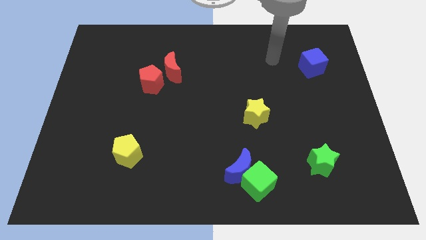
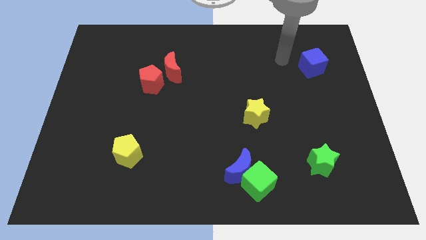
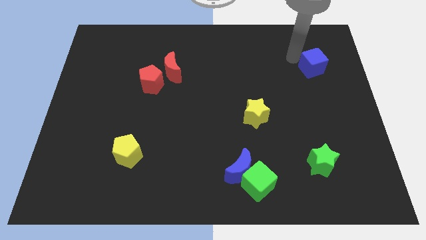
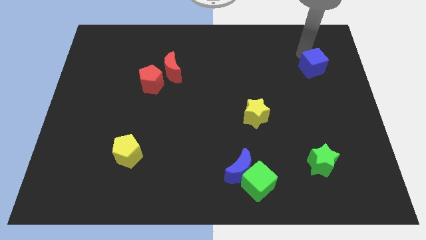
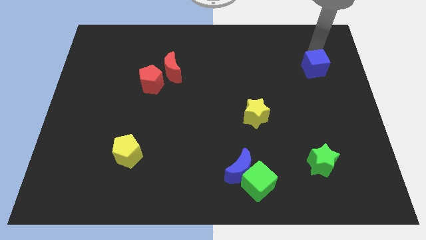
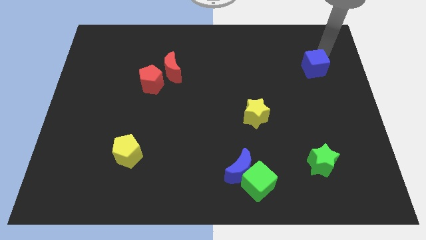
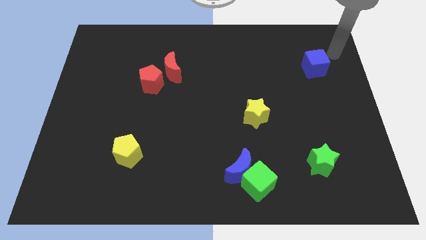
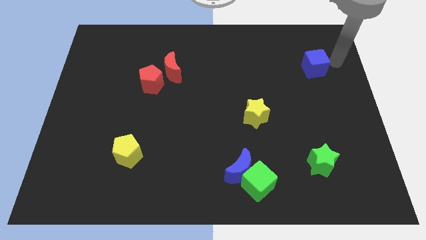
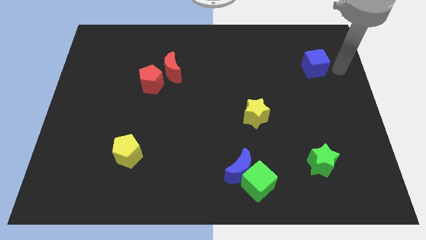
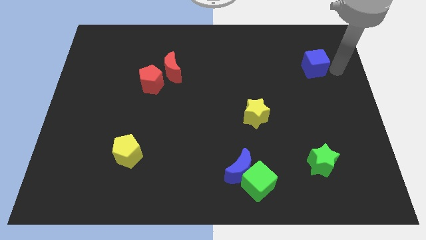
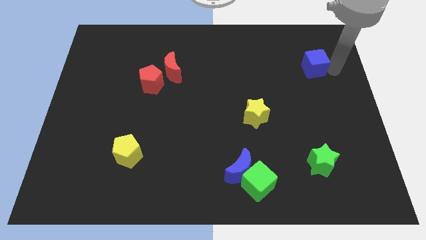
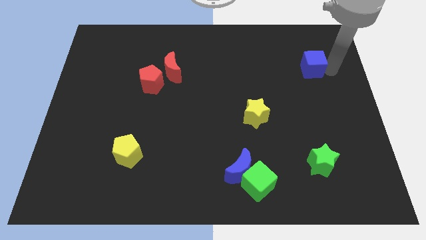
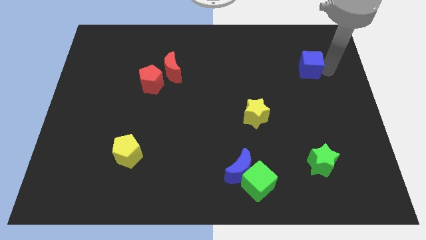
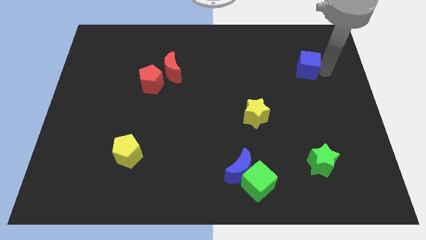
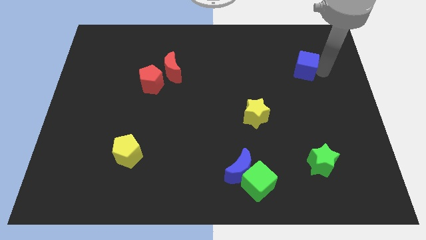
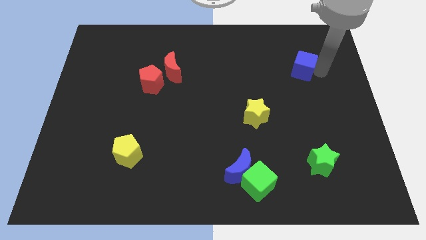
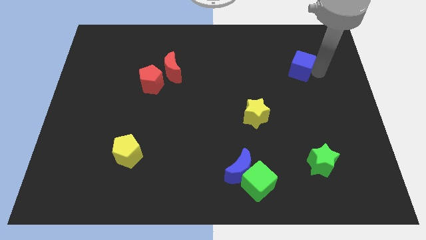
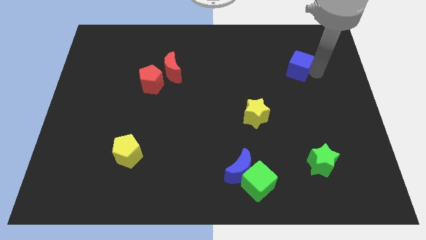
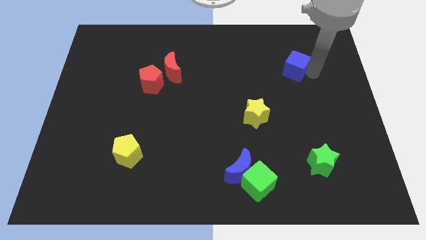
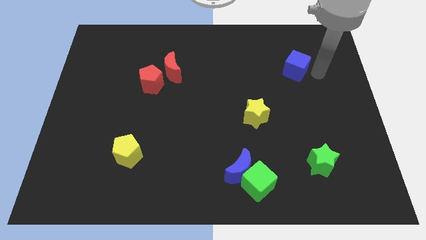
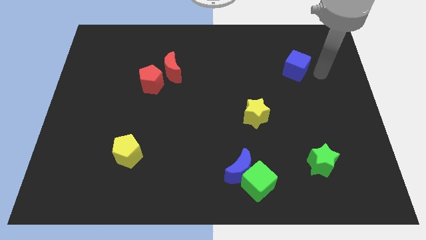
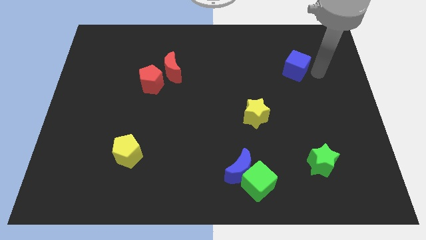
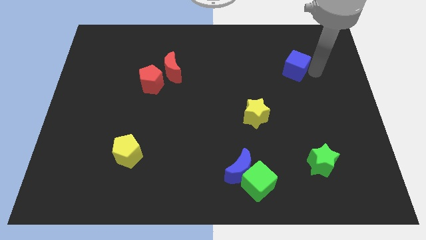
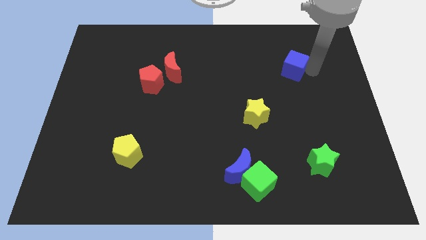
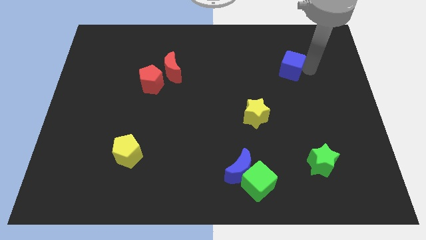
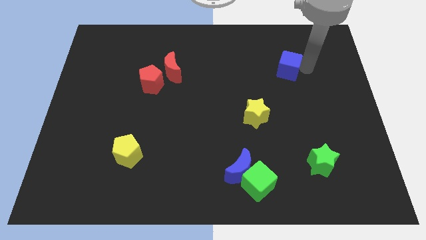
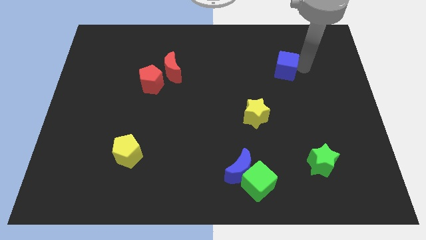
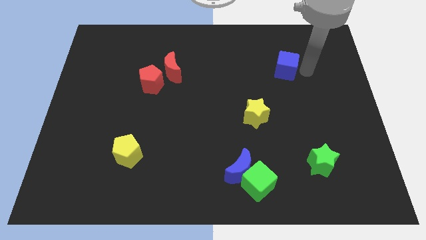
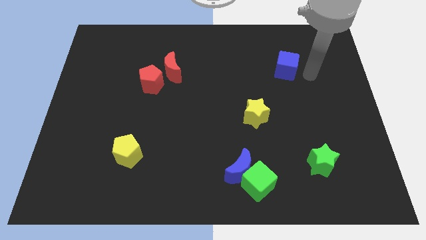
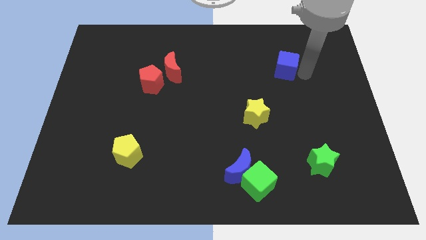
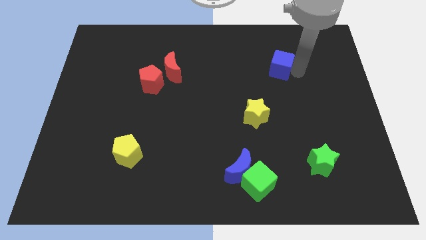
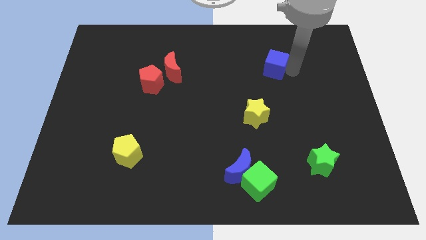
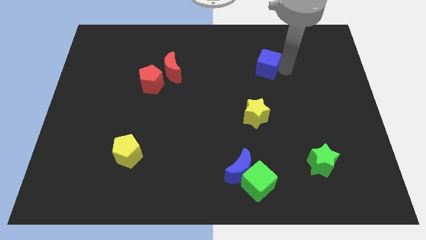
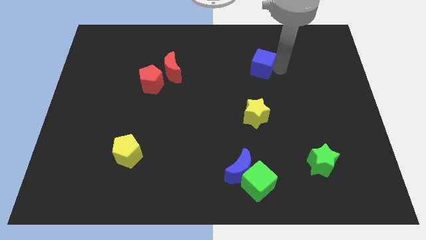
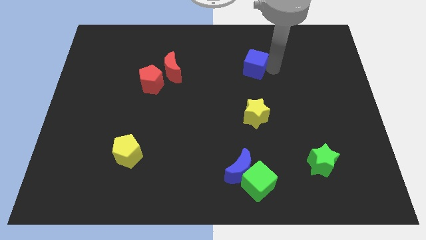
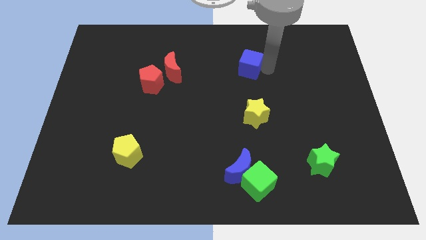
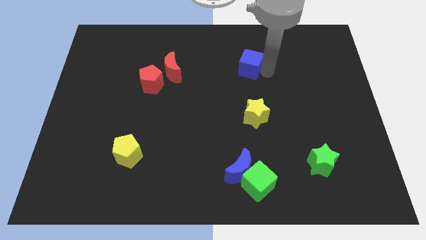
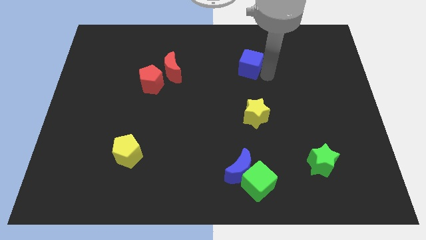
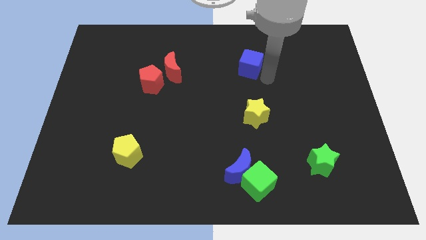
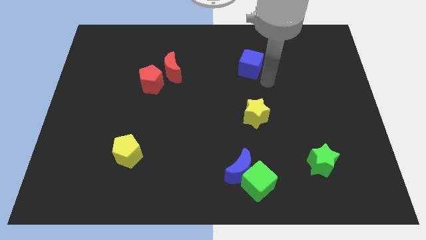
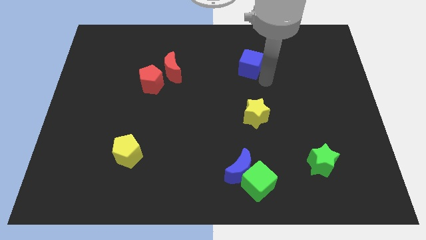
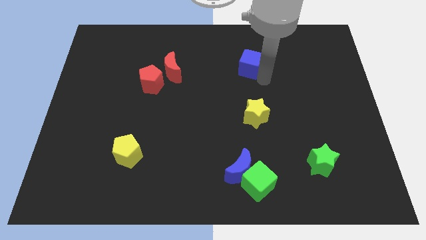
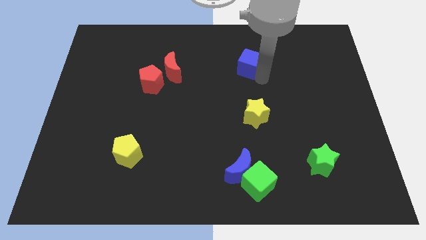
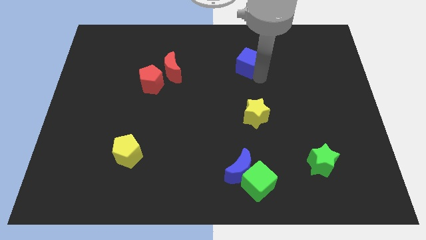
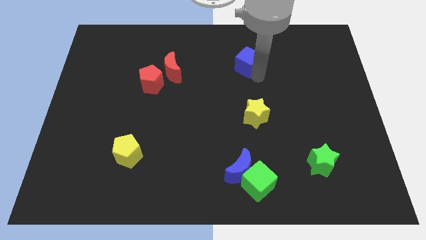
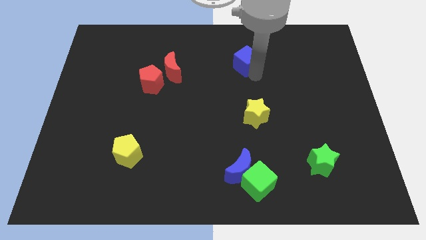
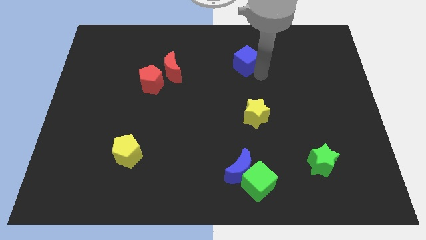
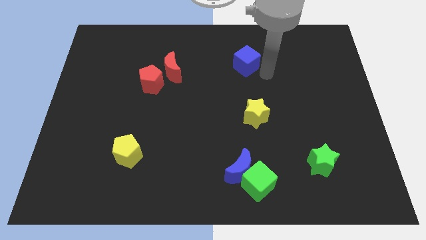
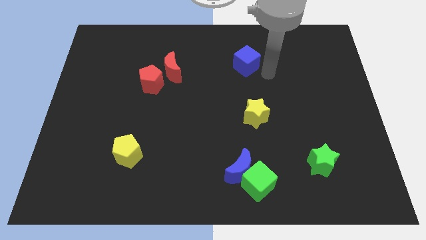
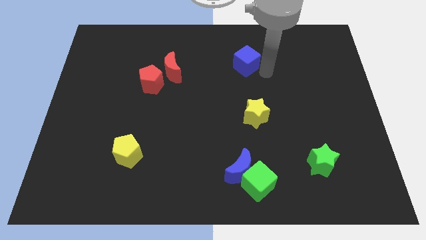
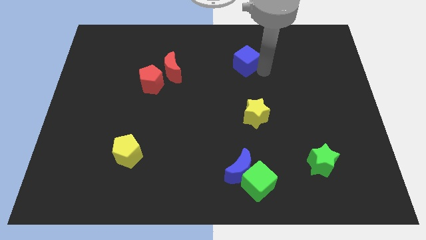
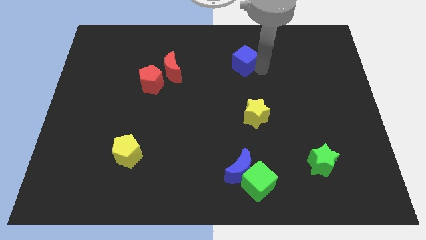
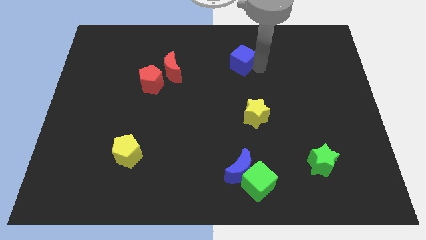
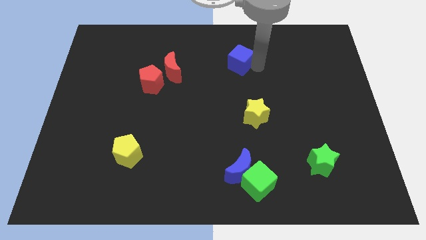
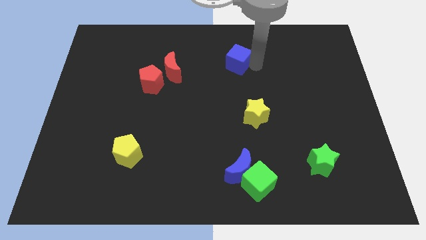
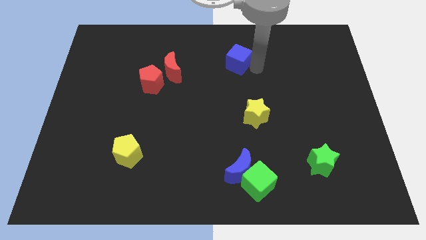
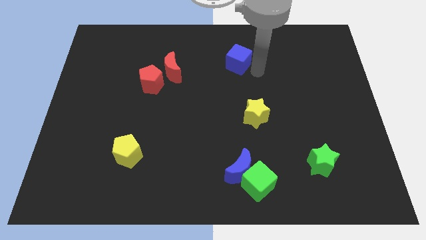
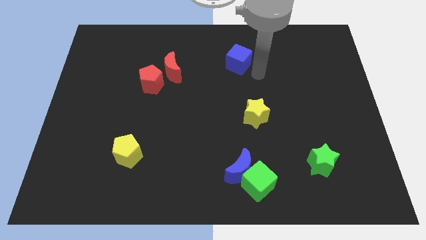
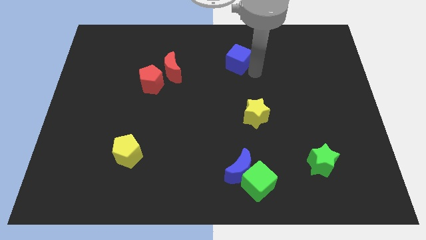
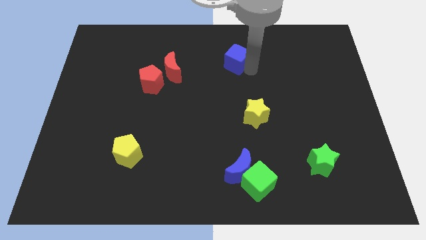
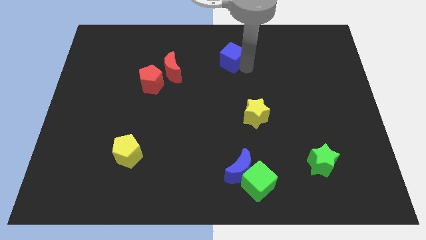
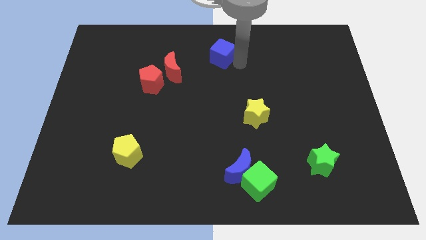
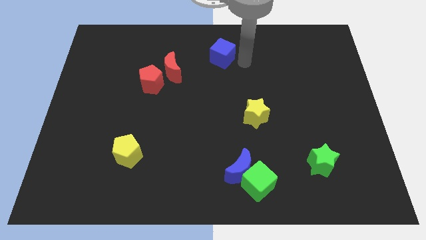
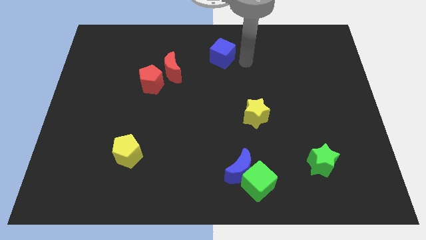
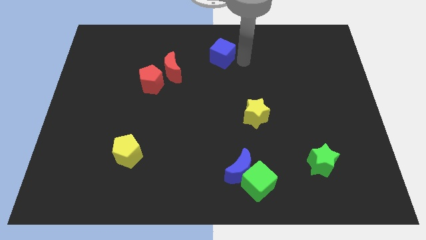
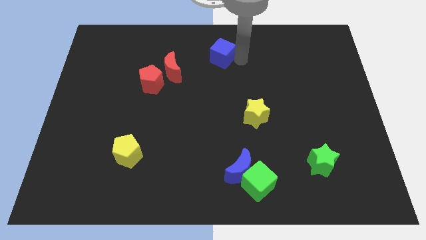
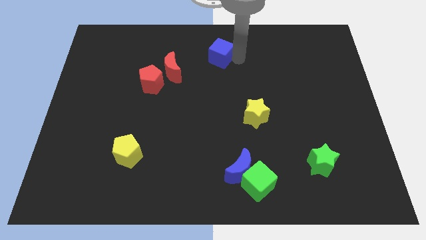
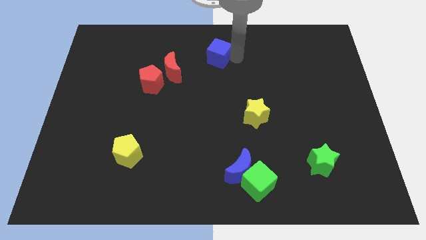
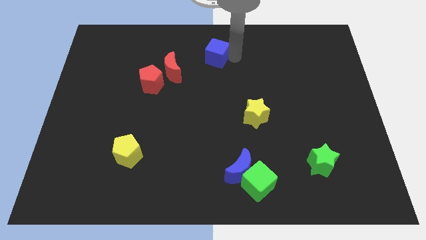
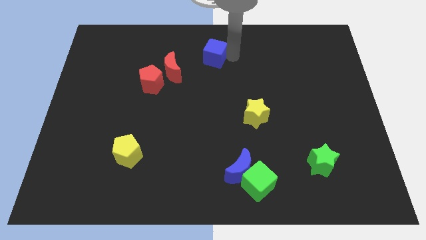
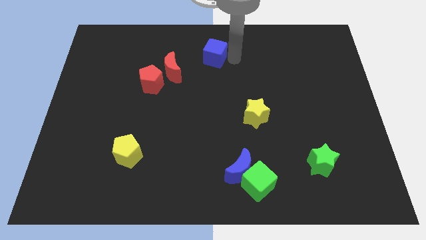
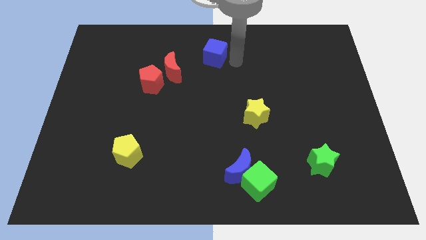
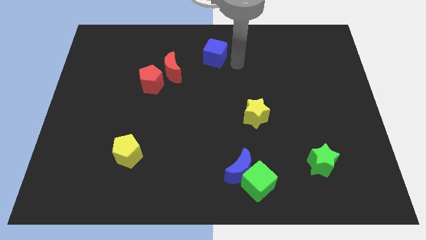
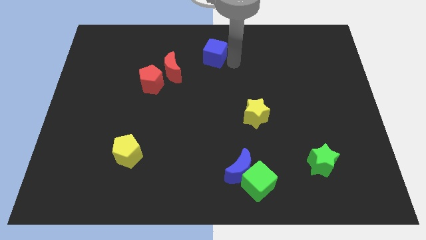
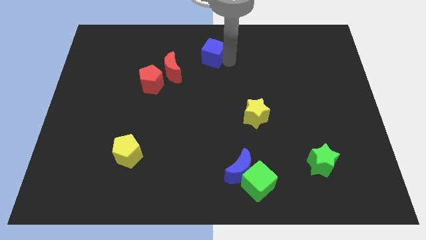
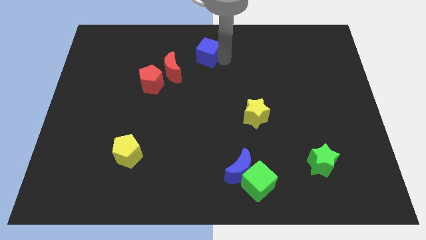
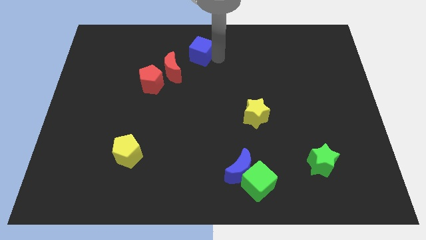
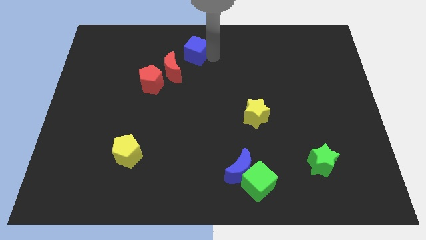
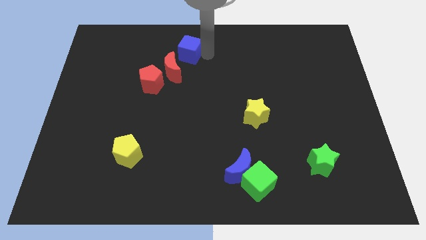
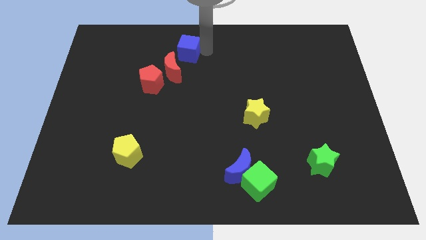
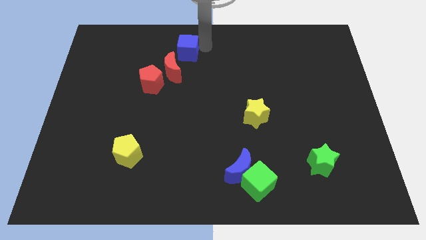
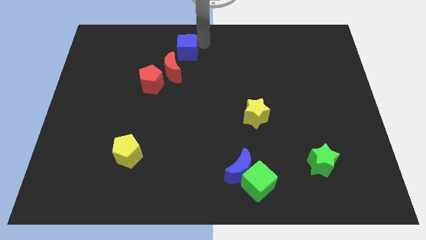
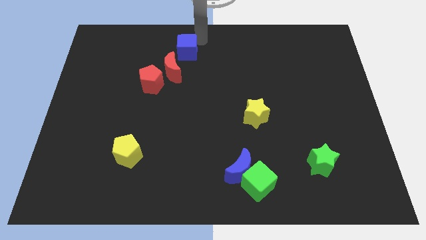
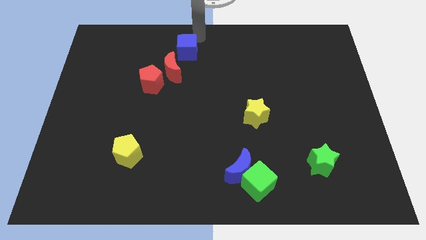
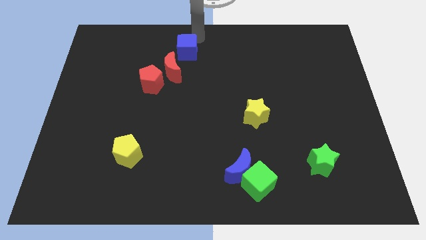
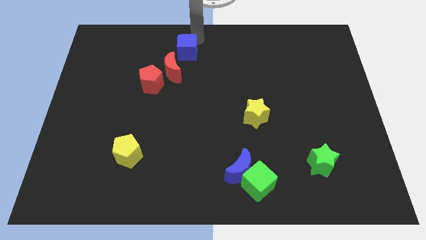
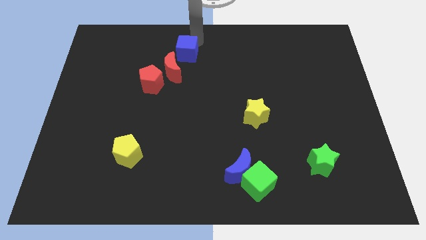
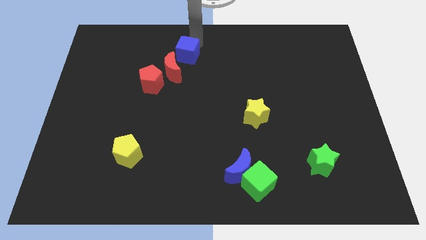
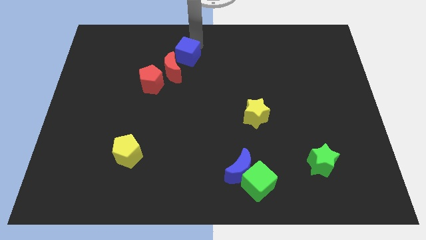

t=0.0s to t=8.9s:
move the blue cube to the top right of the red pentagon
